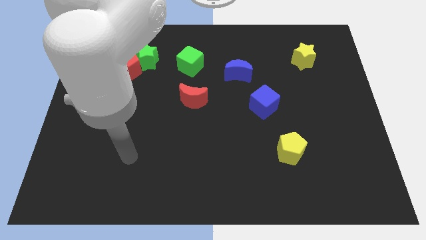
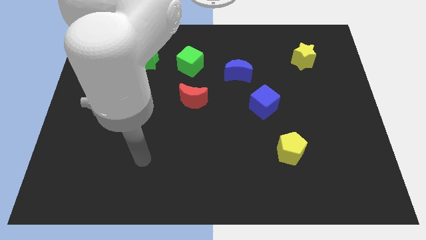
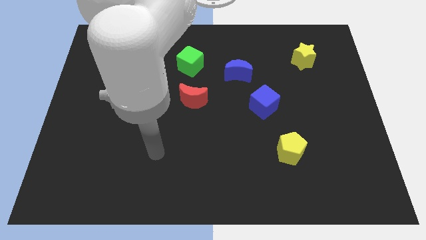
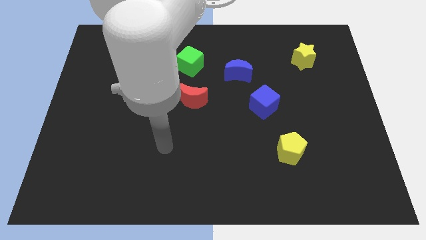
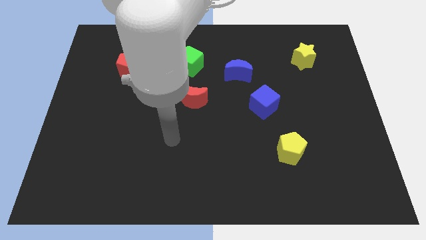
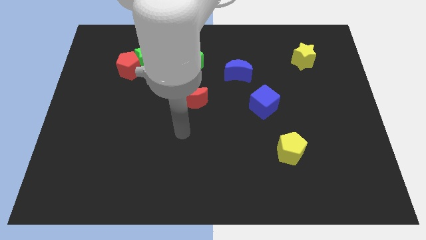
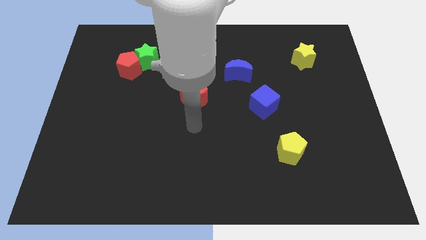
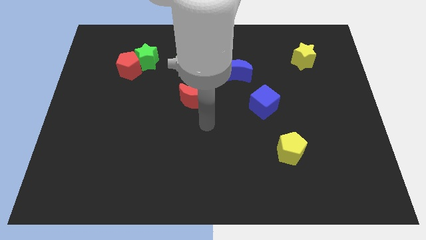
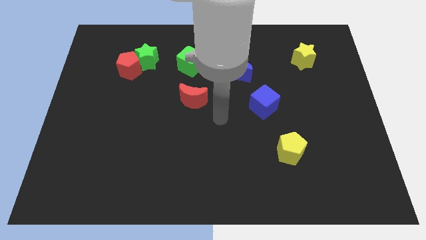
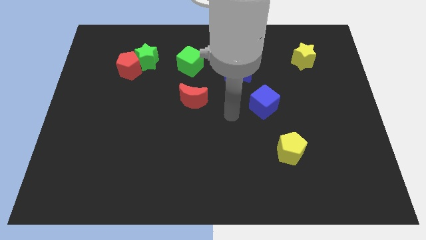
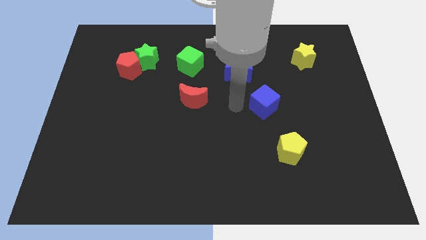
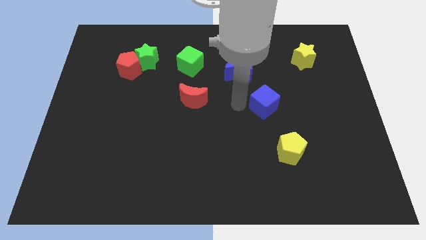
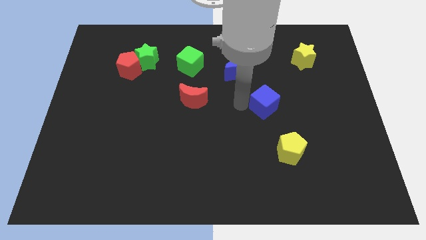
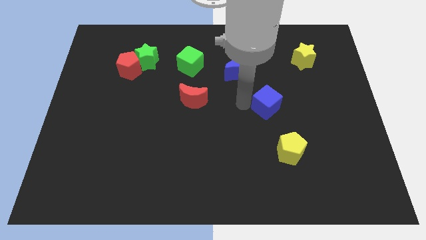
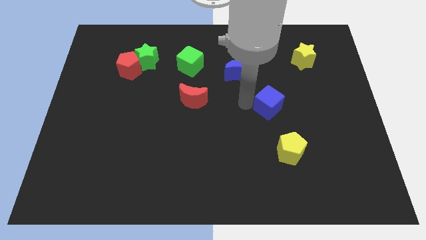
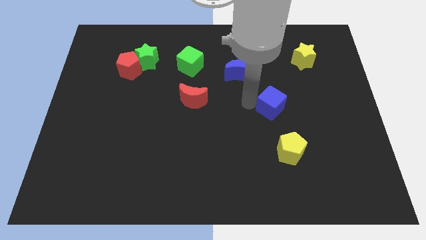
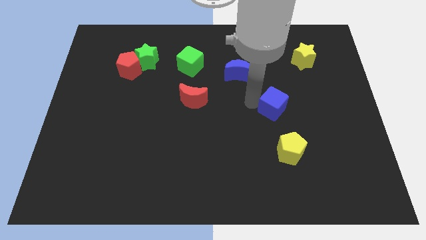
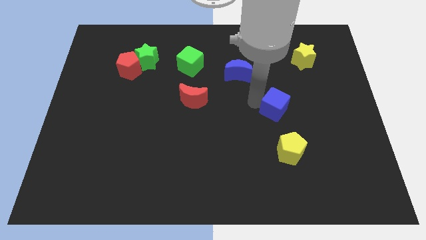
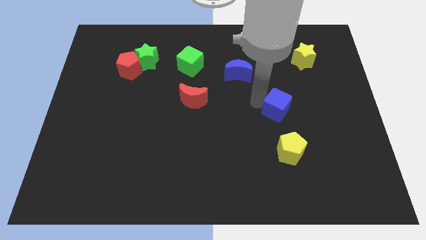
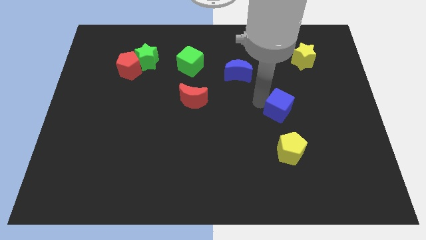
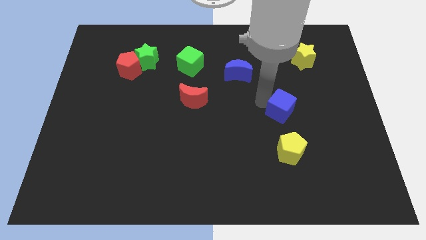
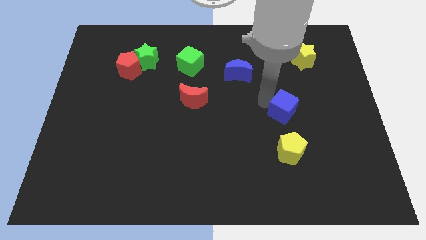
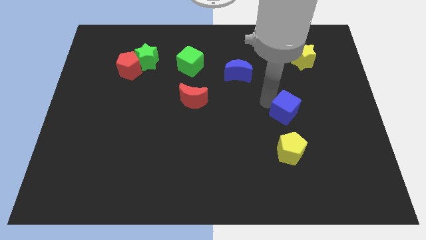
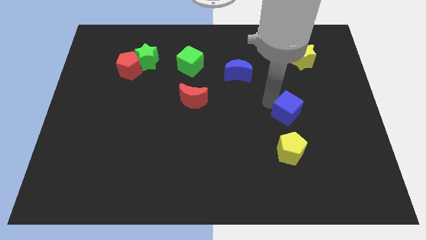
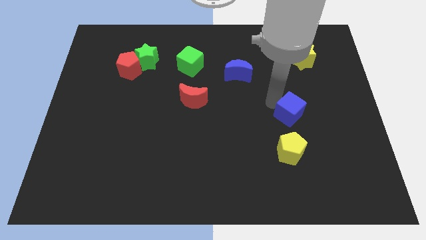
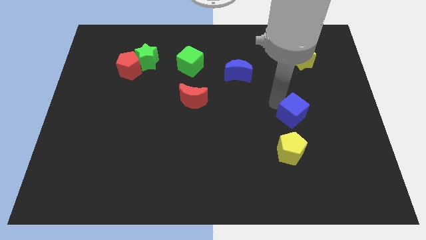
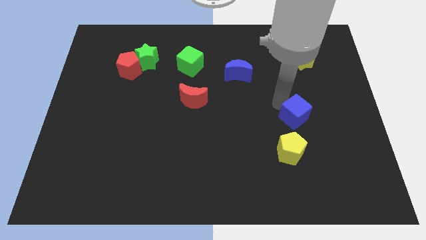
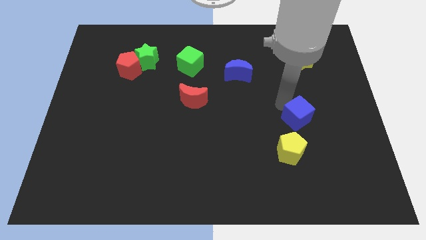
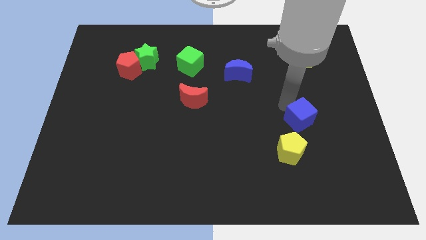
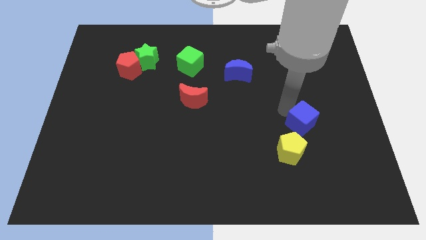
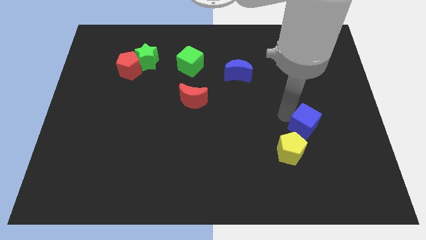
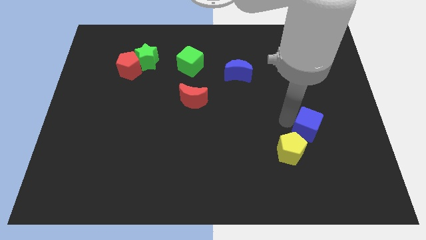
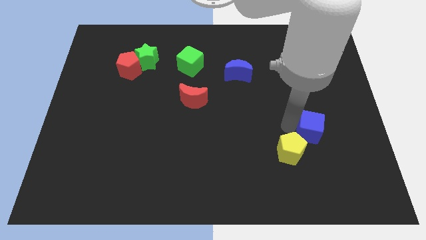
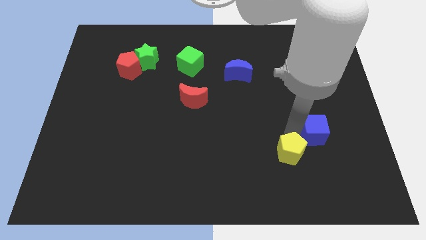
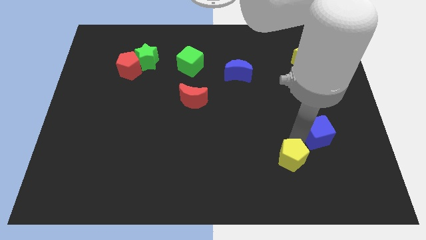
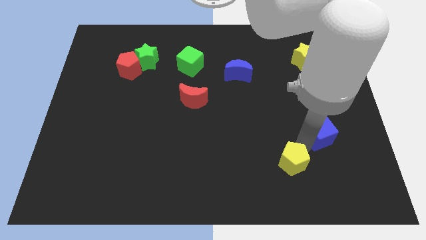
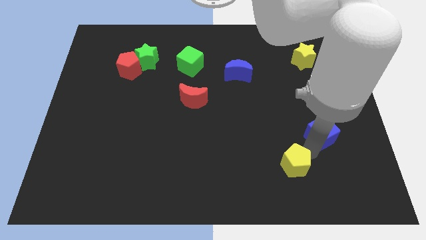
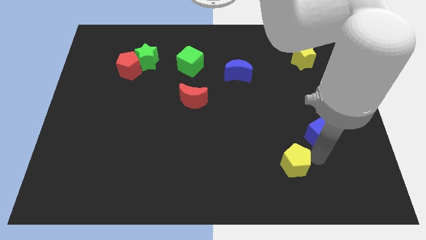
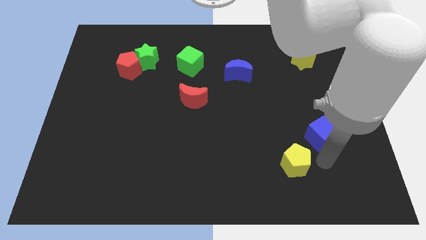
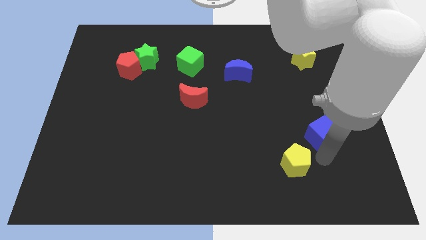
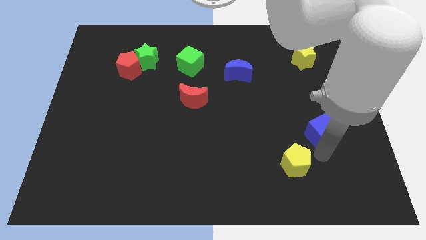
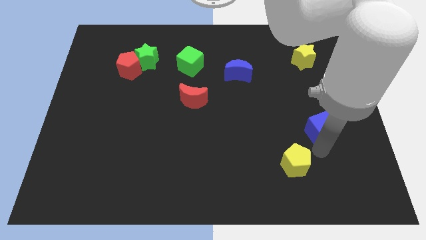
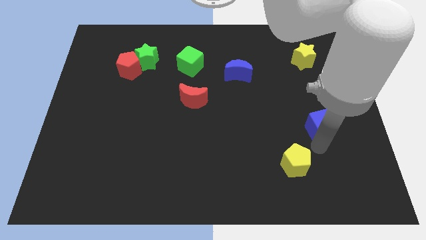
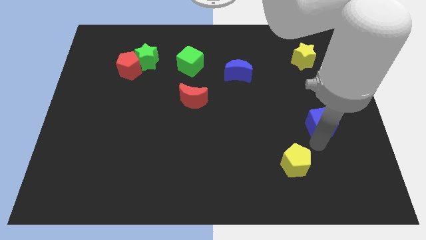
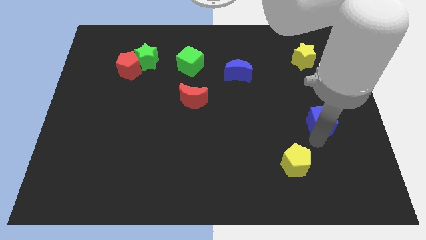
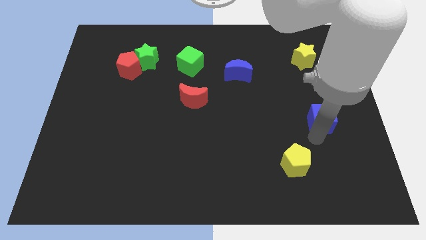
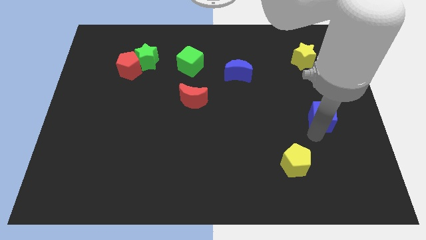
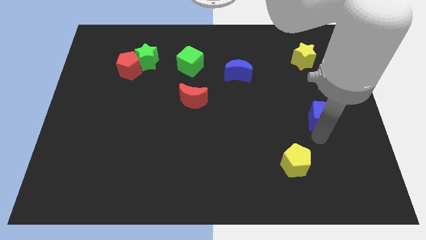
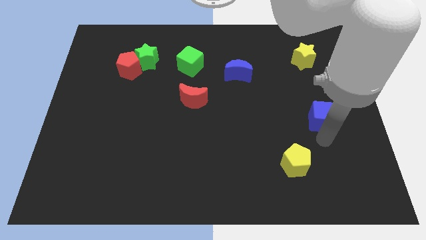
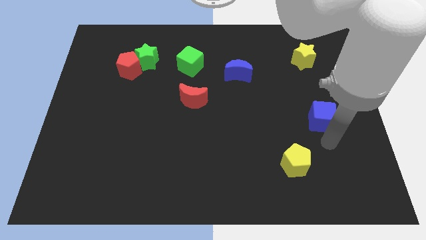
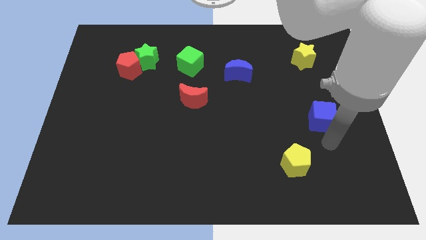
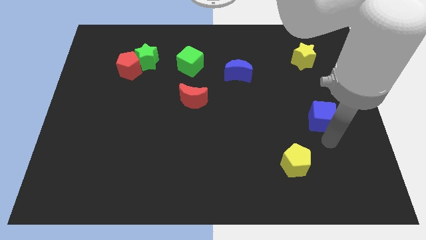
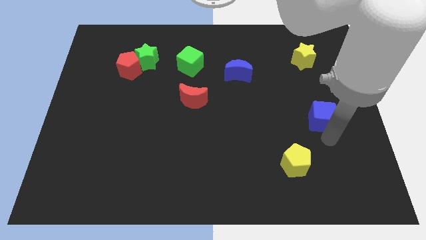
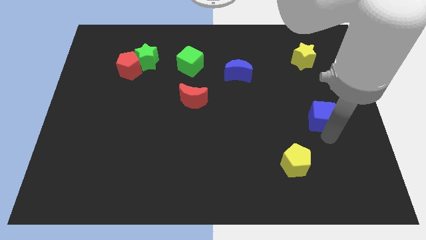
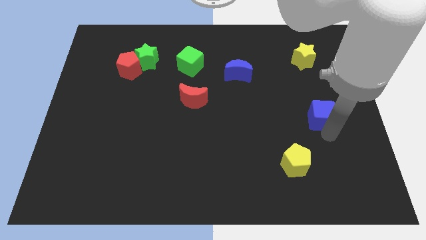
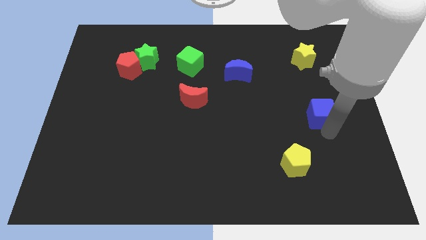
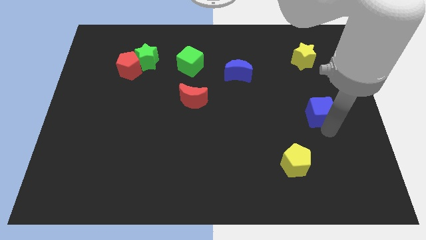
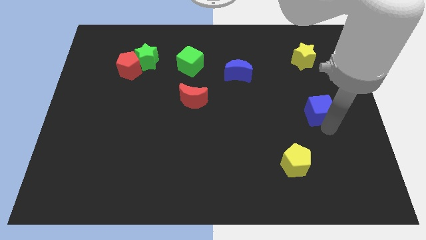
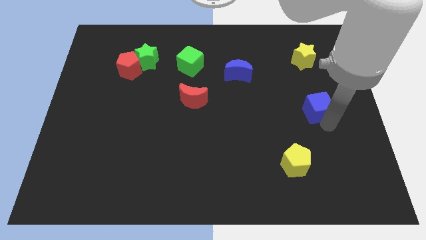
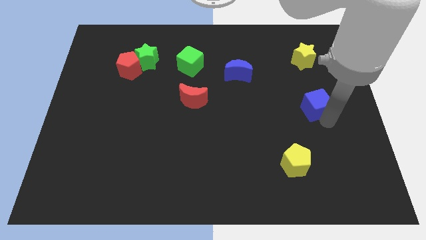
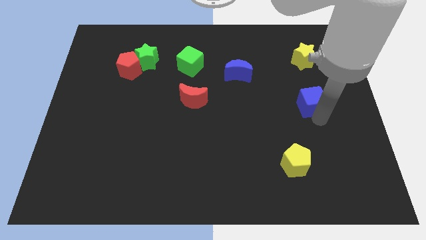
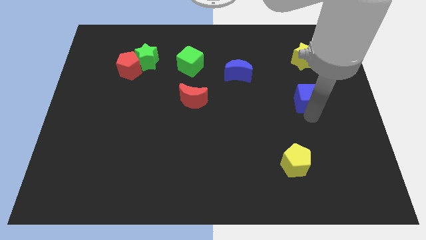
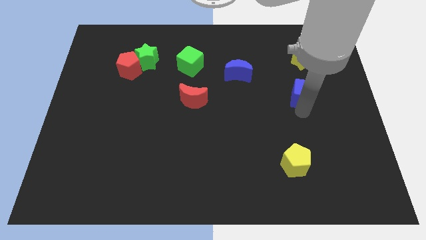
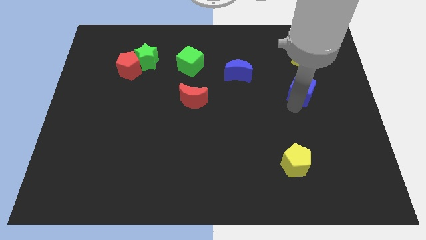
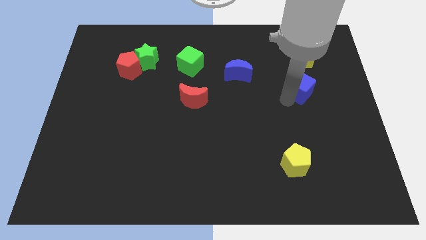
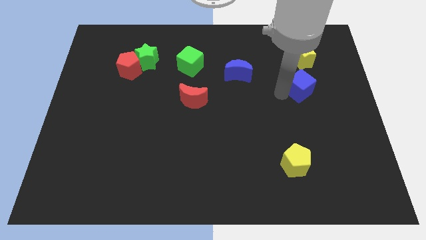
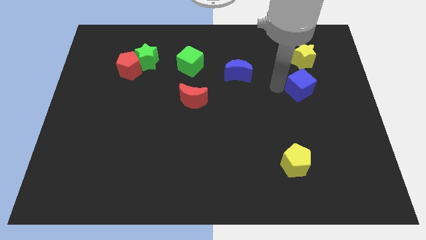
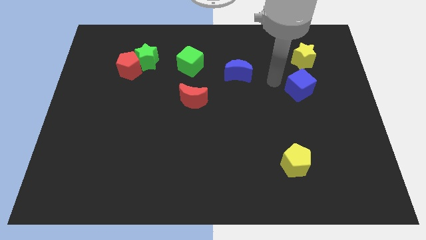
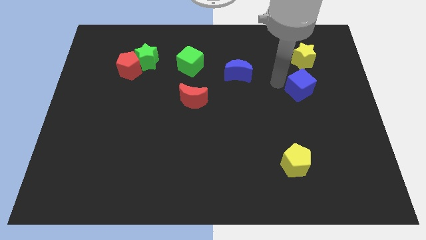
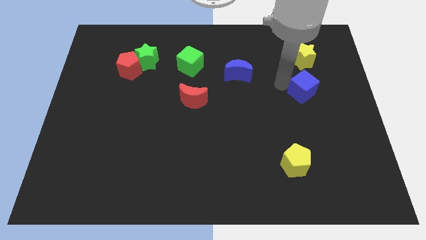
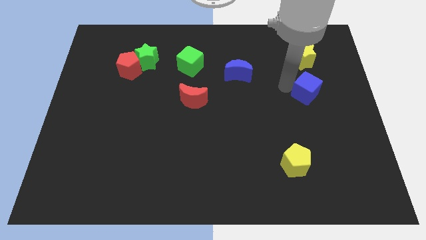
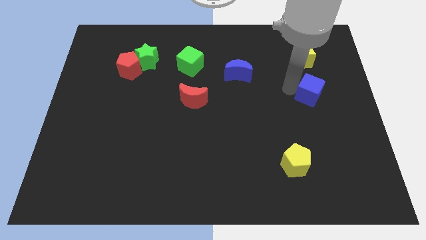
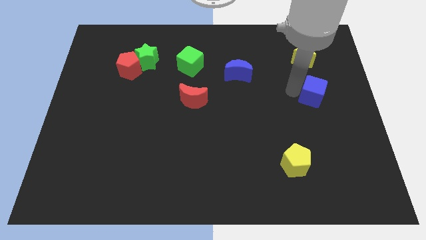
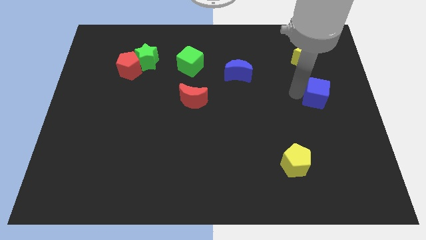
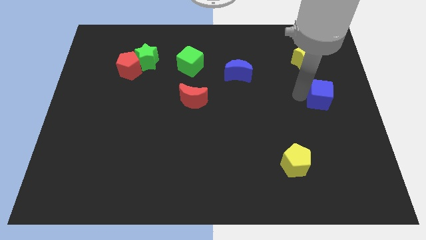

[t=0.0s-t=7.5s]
move the blue cube to the center right
